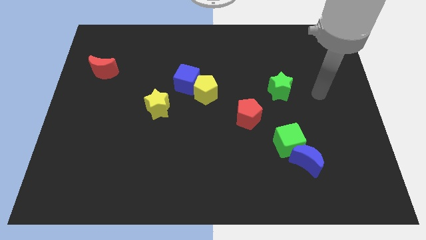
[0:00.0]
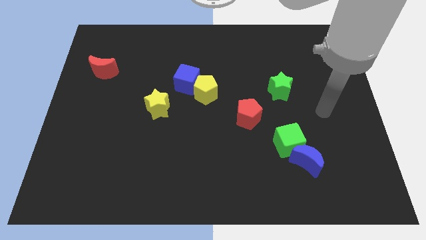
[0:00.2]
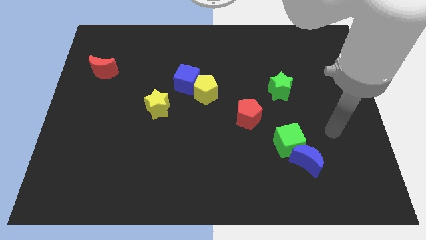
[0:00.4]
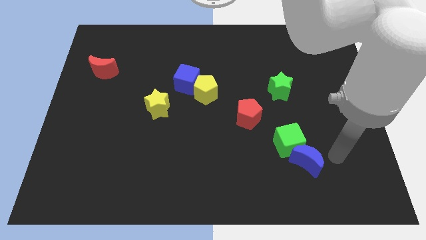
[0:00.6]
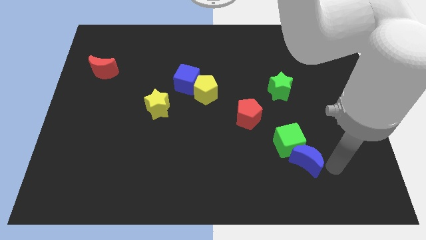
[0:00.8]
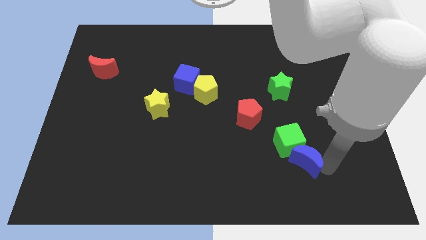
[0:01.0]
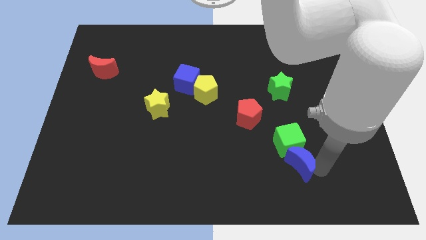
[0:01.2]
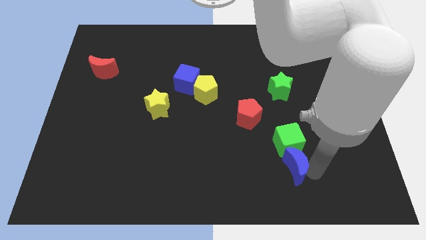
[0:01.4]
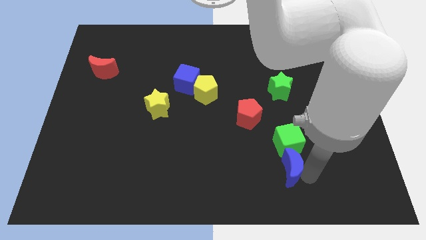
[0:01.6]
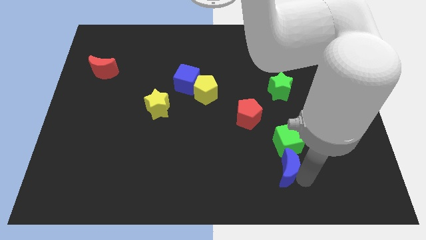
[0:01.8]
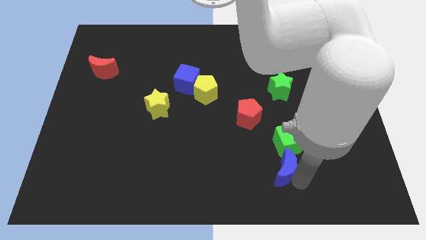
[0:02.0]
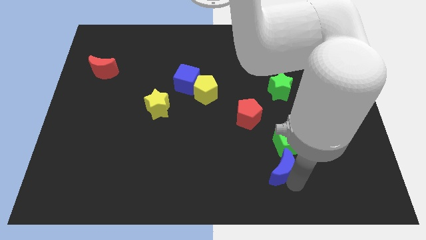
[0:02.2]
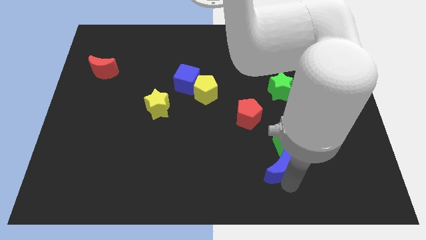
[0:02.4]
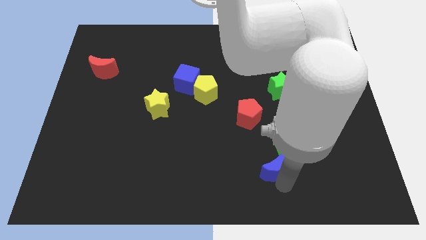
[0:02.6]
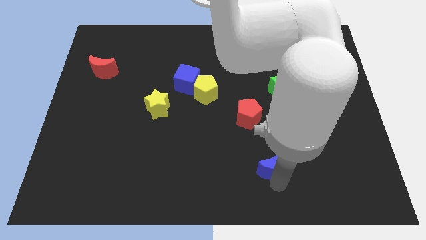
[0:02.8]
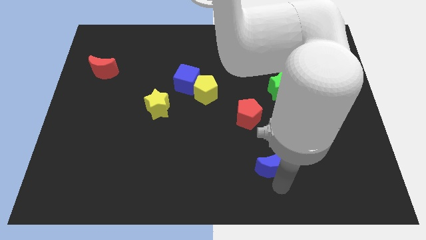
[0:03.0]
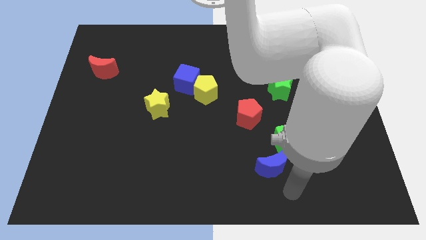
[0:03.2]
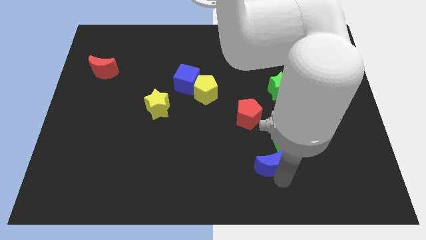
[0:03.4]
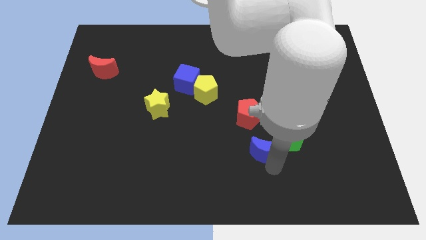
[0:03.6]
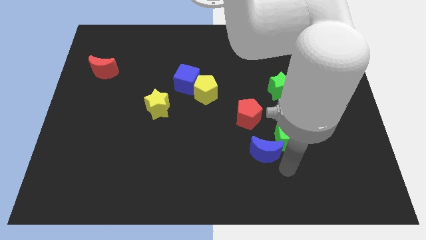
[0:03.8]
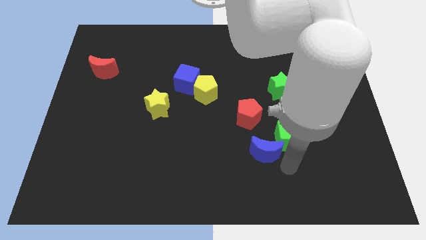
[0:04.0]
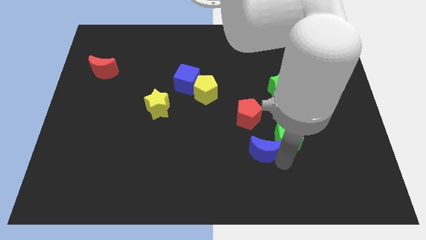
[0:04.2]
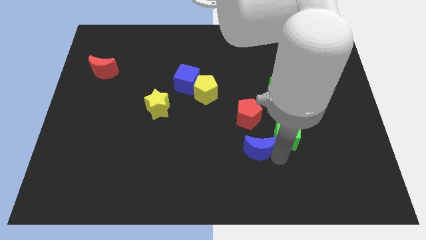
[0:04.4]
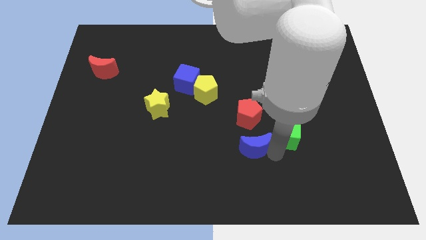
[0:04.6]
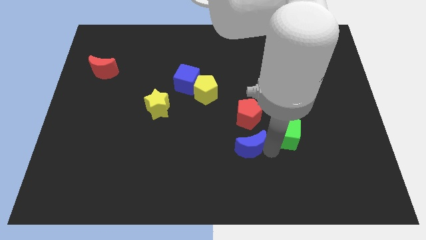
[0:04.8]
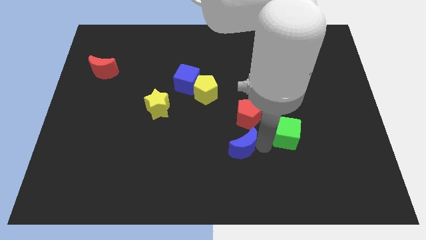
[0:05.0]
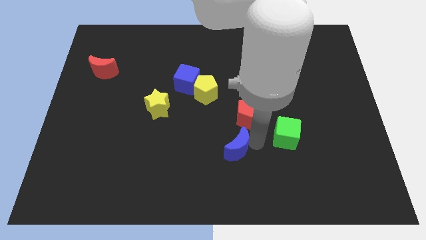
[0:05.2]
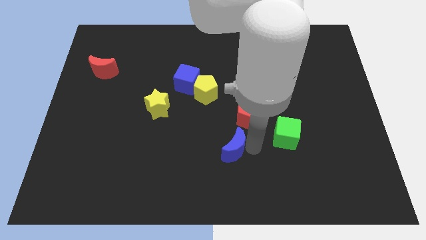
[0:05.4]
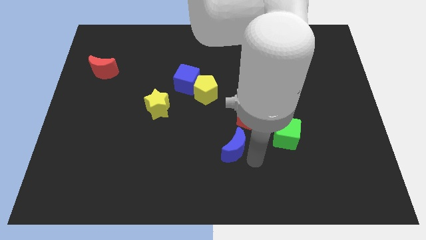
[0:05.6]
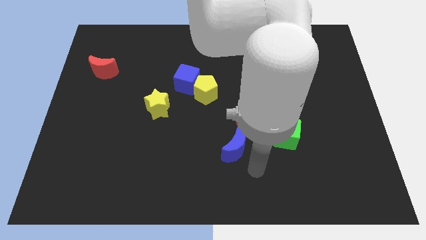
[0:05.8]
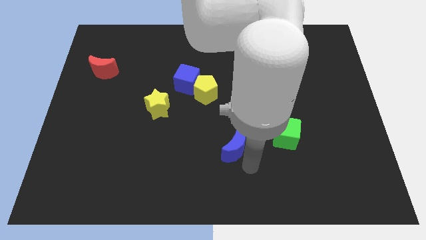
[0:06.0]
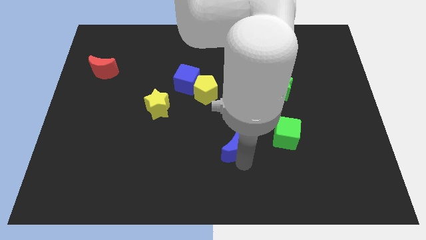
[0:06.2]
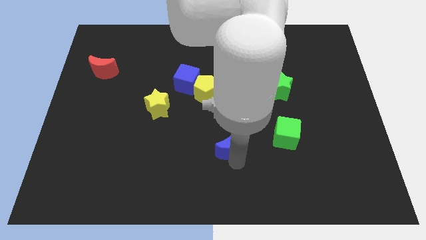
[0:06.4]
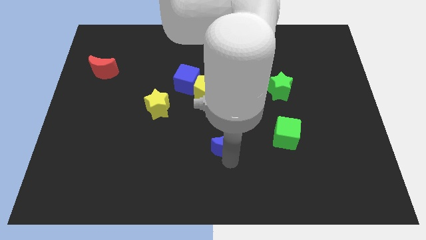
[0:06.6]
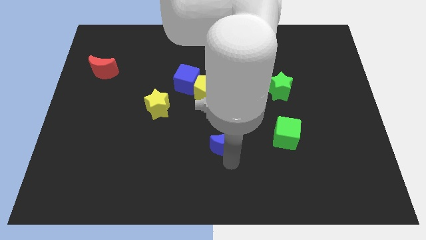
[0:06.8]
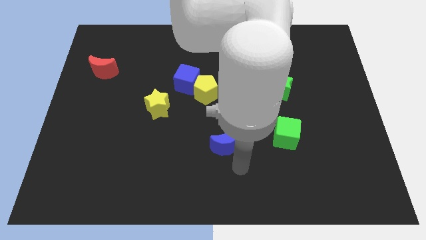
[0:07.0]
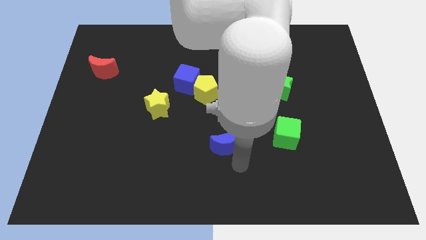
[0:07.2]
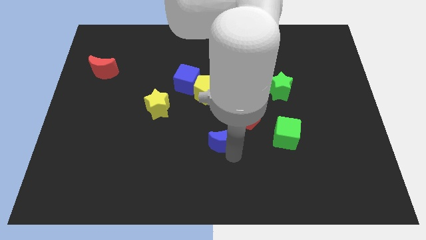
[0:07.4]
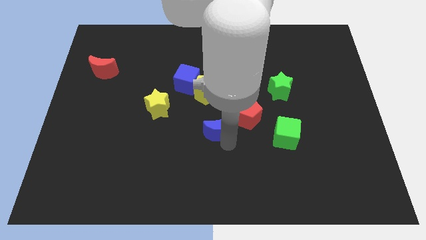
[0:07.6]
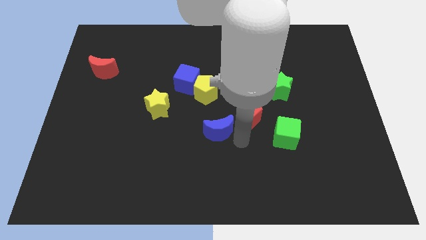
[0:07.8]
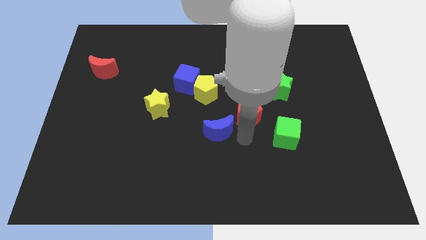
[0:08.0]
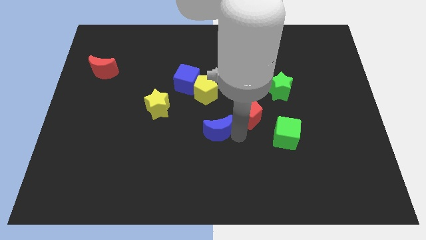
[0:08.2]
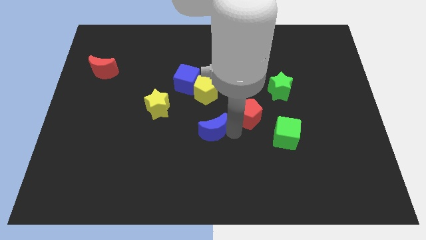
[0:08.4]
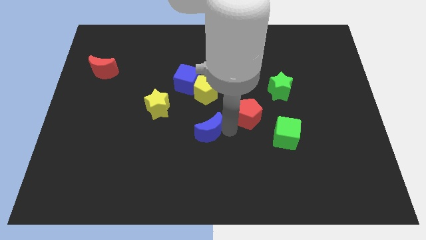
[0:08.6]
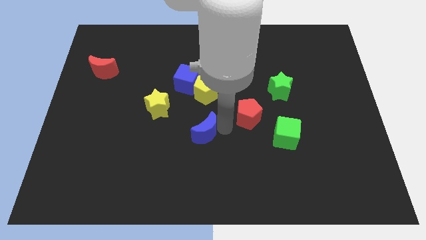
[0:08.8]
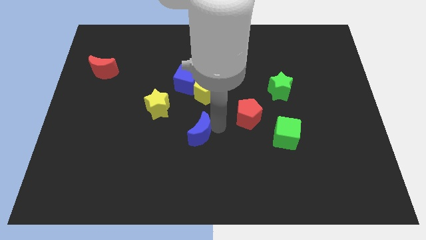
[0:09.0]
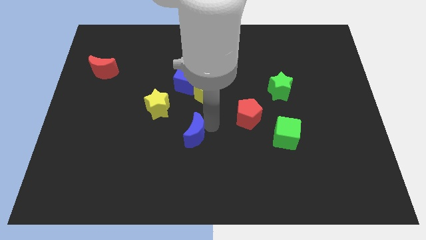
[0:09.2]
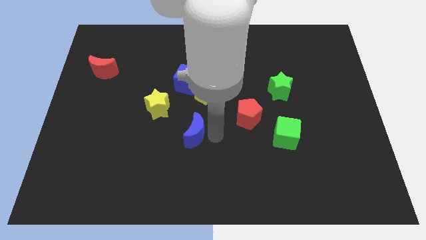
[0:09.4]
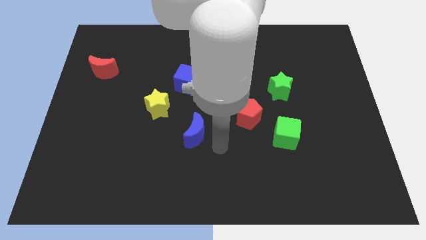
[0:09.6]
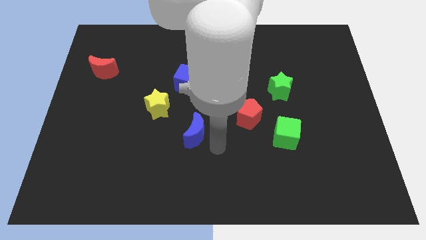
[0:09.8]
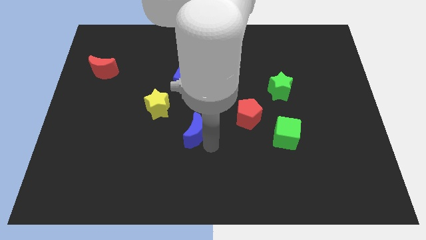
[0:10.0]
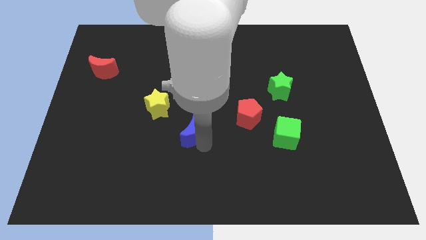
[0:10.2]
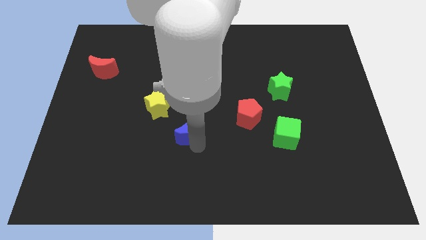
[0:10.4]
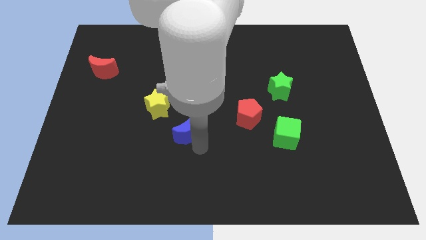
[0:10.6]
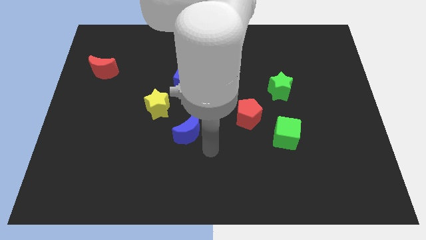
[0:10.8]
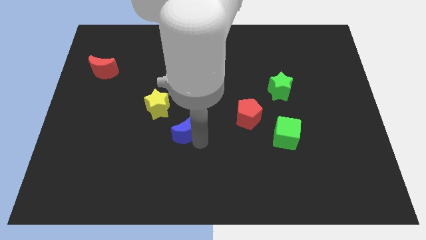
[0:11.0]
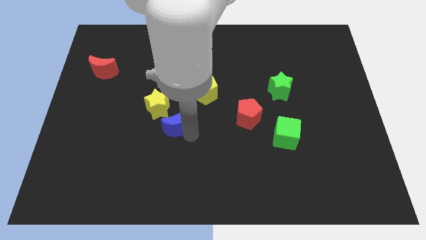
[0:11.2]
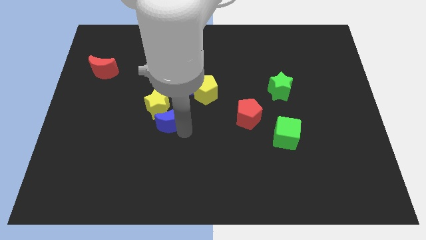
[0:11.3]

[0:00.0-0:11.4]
push the blue moon next to the yellow star

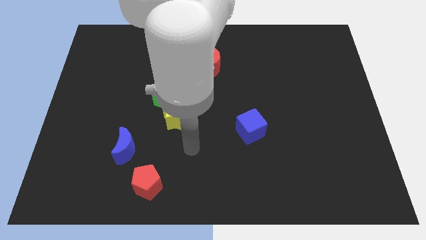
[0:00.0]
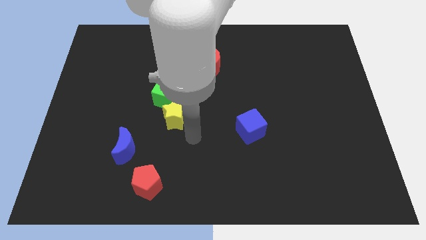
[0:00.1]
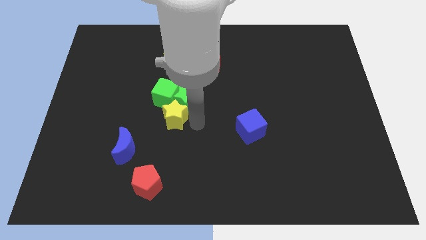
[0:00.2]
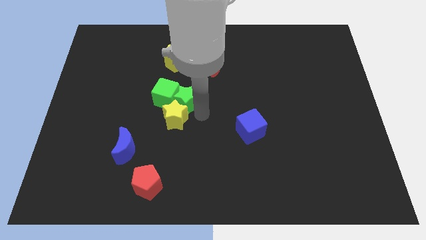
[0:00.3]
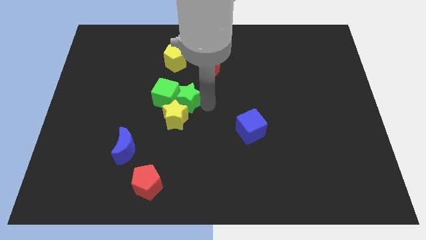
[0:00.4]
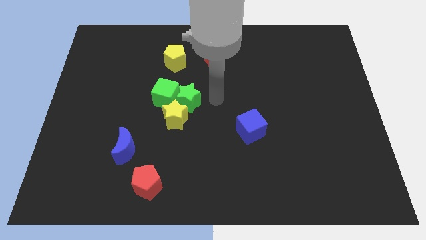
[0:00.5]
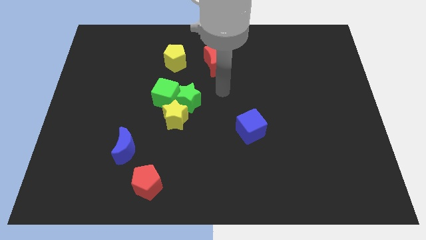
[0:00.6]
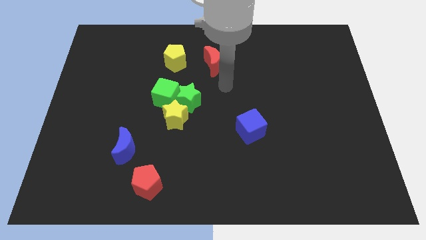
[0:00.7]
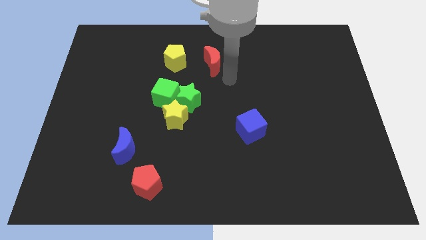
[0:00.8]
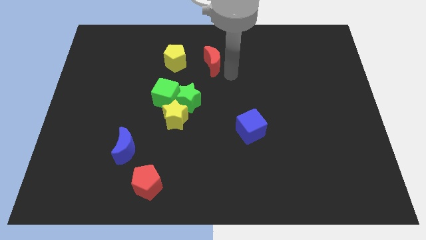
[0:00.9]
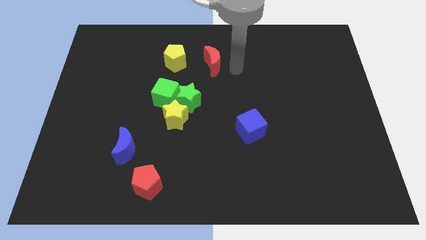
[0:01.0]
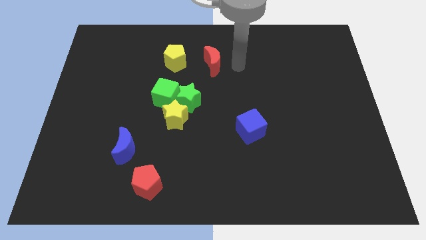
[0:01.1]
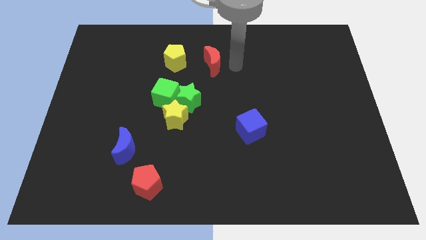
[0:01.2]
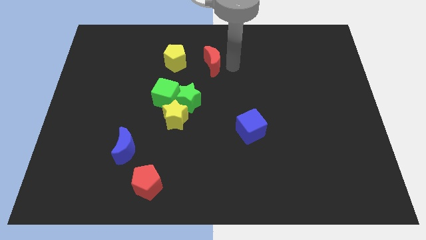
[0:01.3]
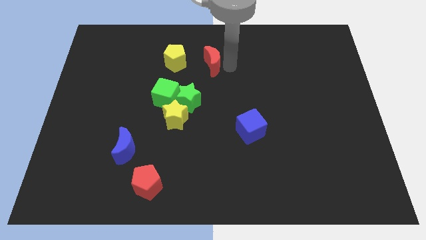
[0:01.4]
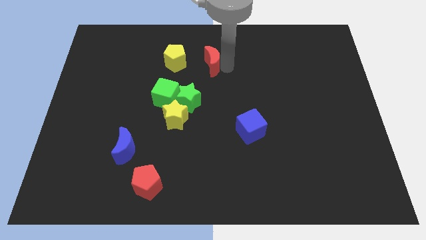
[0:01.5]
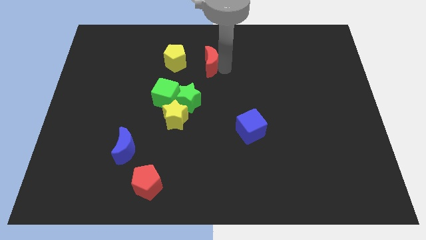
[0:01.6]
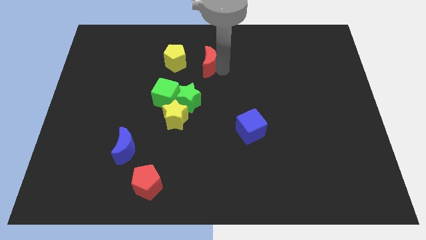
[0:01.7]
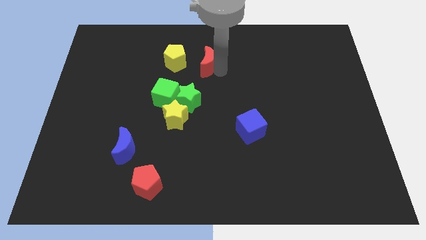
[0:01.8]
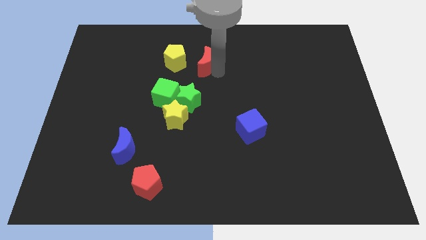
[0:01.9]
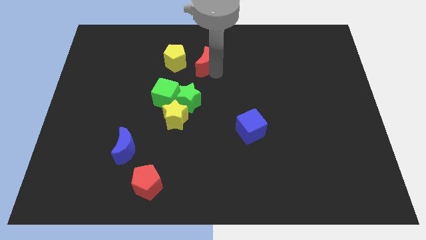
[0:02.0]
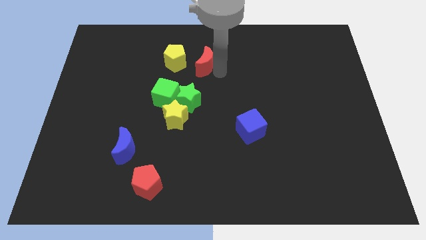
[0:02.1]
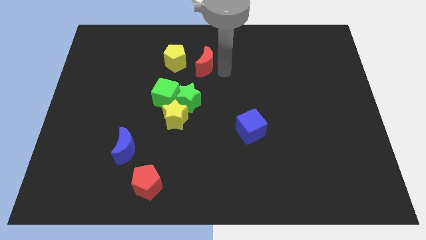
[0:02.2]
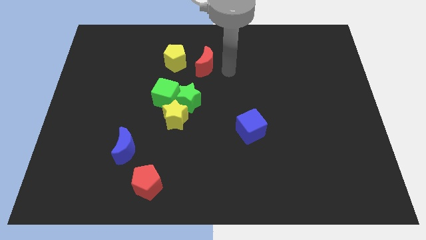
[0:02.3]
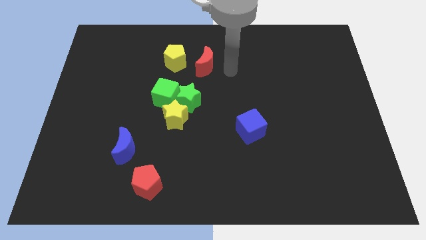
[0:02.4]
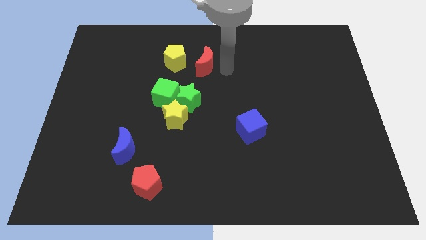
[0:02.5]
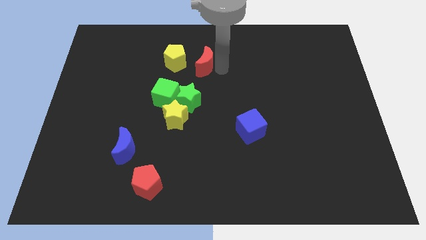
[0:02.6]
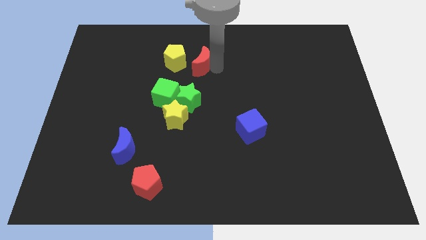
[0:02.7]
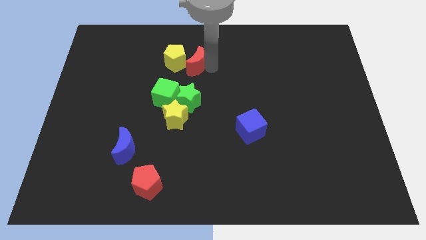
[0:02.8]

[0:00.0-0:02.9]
move the red moon next to the yellow pentagon
